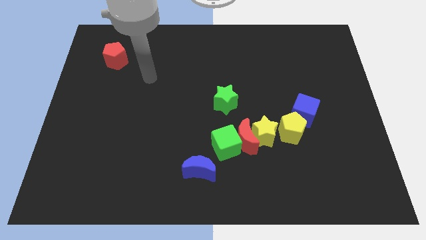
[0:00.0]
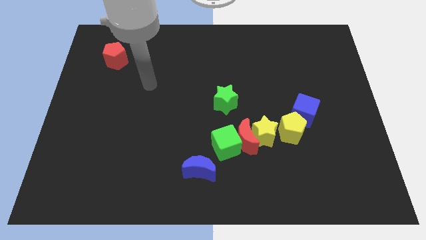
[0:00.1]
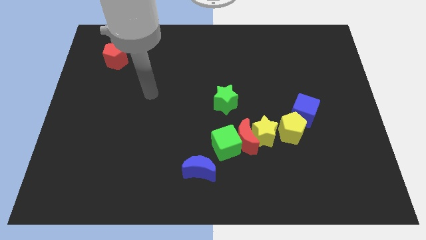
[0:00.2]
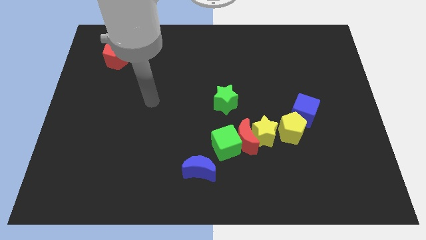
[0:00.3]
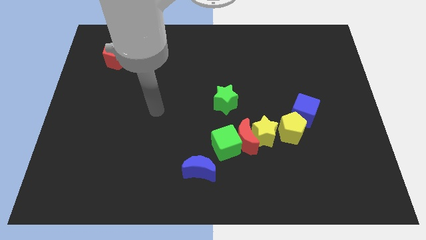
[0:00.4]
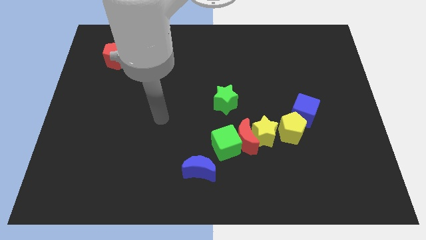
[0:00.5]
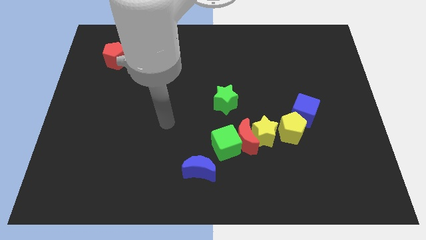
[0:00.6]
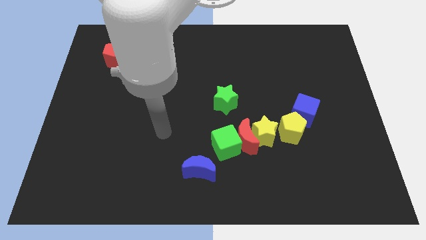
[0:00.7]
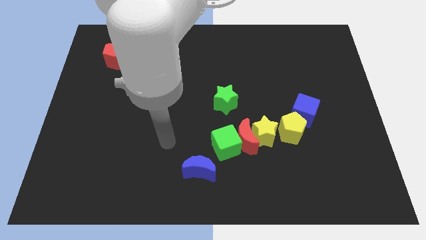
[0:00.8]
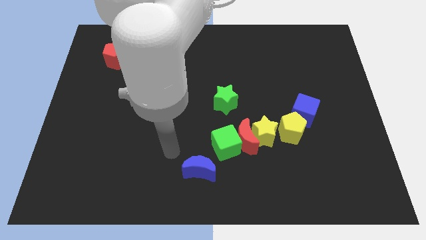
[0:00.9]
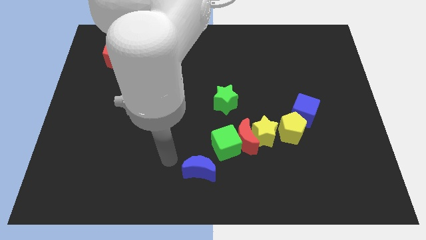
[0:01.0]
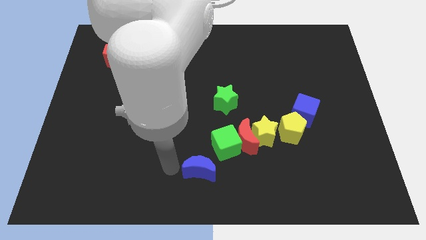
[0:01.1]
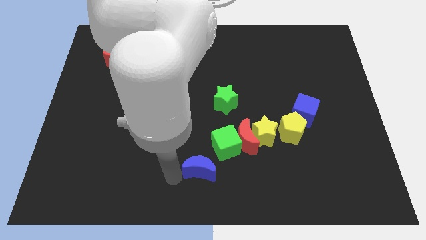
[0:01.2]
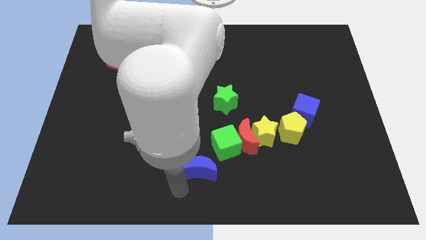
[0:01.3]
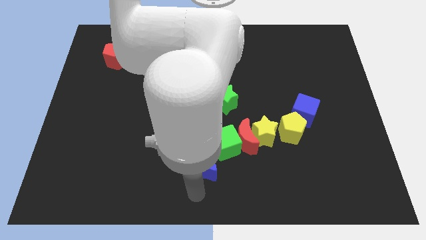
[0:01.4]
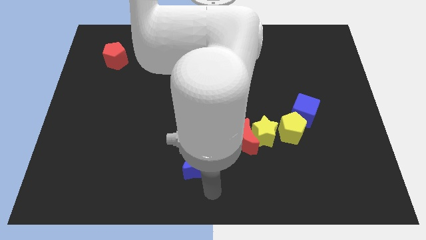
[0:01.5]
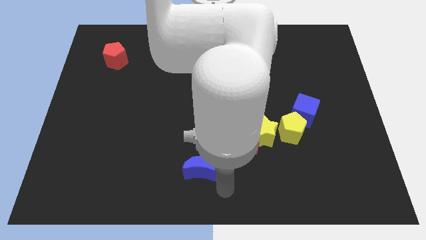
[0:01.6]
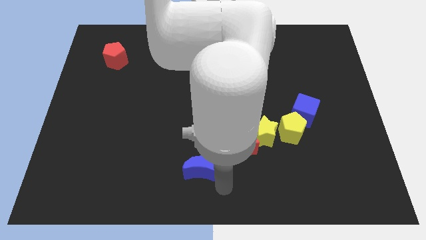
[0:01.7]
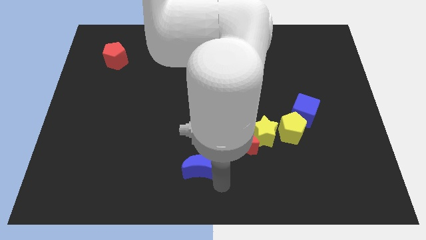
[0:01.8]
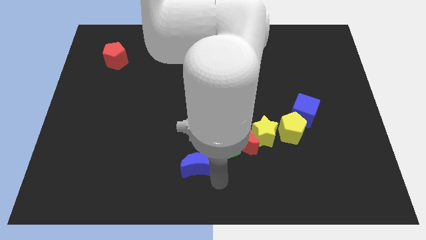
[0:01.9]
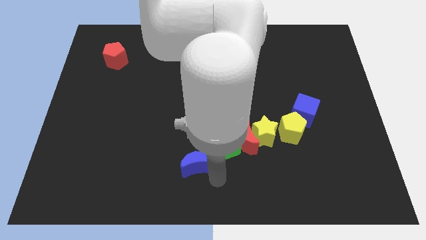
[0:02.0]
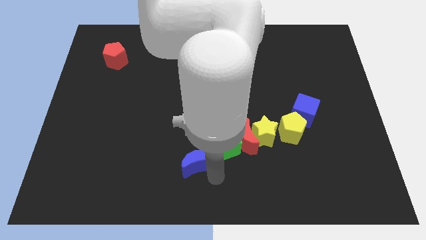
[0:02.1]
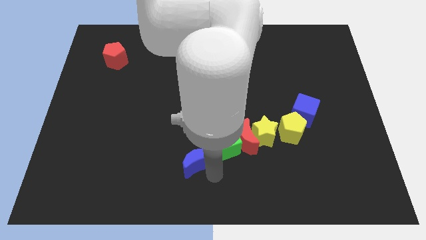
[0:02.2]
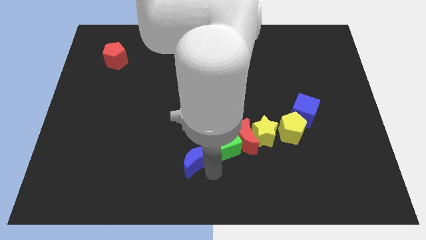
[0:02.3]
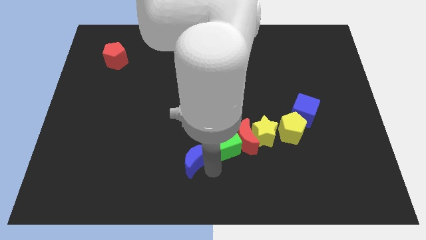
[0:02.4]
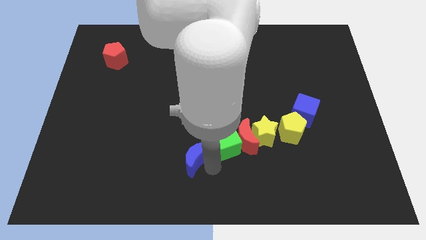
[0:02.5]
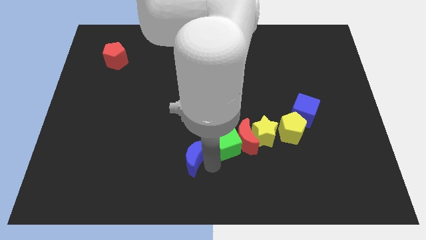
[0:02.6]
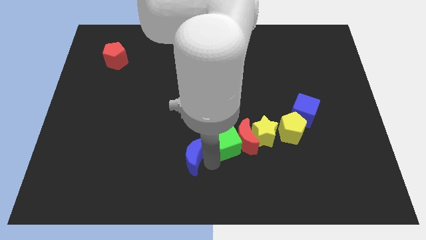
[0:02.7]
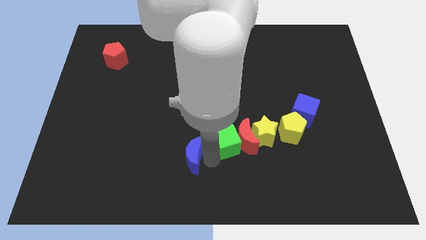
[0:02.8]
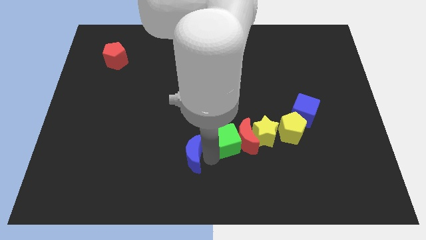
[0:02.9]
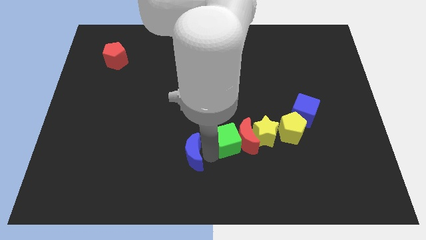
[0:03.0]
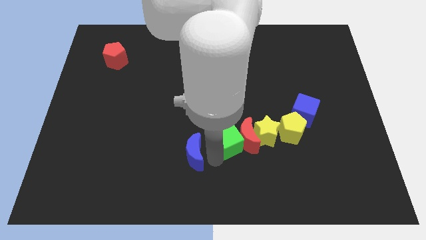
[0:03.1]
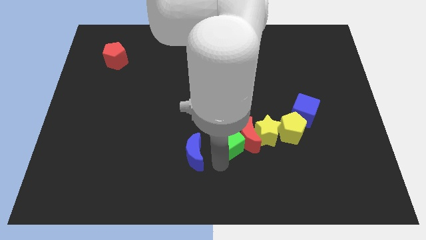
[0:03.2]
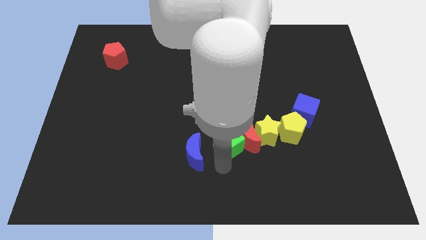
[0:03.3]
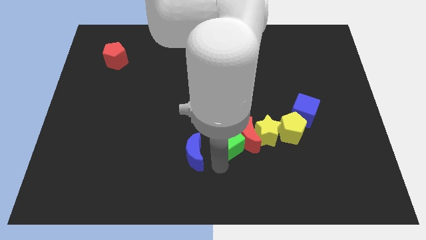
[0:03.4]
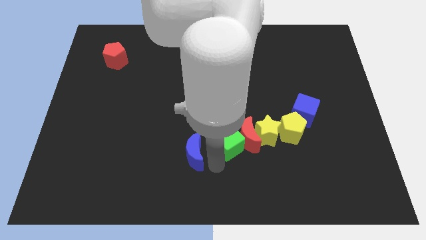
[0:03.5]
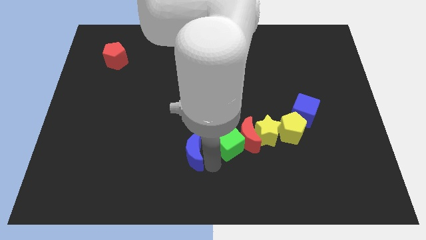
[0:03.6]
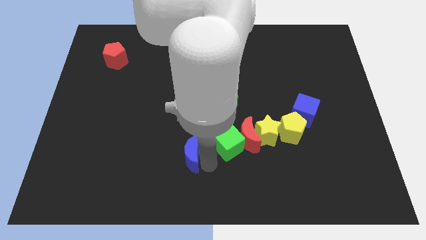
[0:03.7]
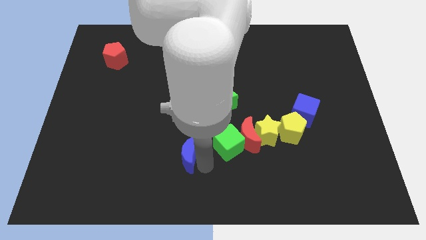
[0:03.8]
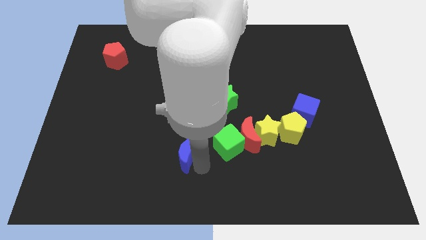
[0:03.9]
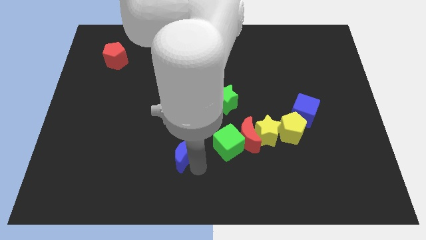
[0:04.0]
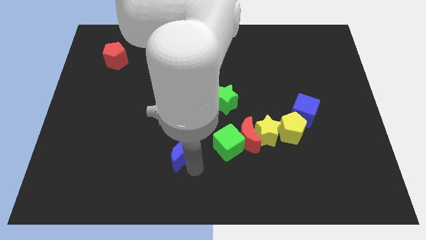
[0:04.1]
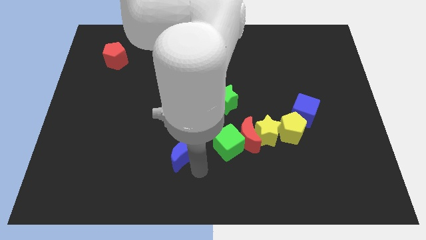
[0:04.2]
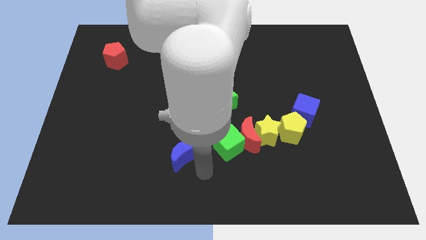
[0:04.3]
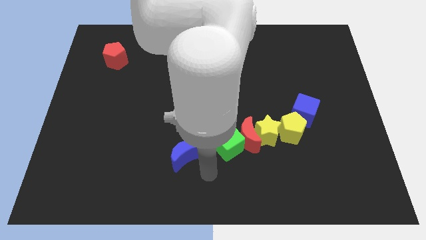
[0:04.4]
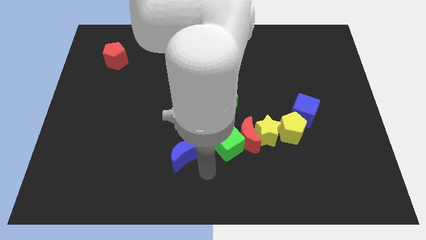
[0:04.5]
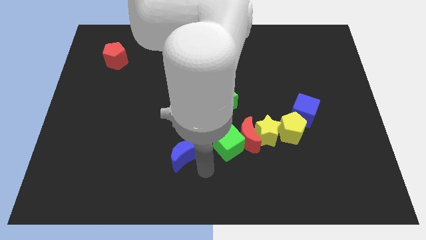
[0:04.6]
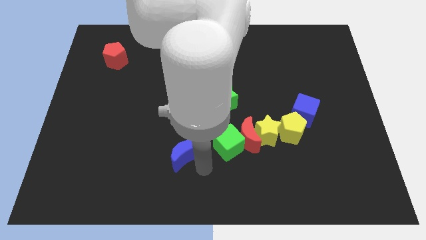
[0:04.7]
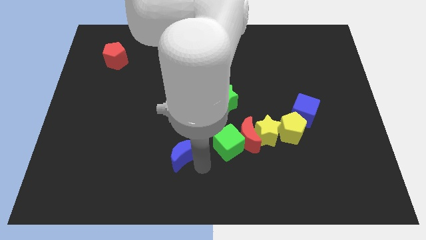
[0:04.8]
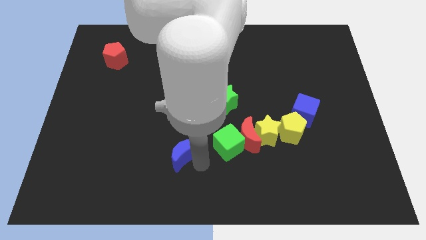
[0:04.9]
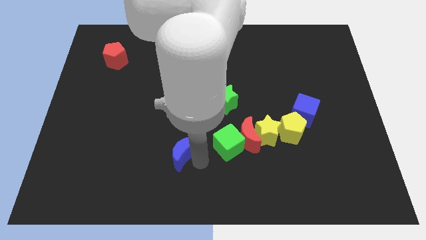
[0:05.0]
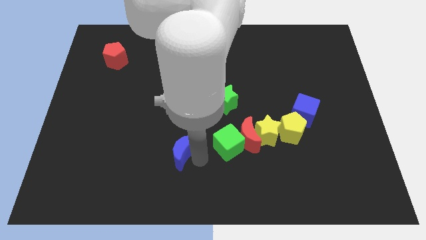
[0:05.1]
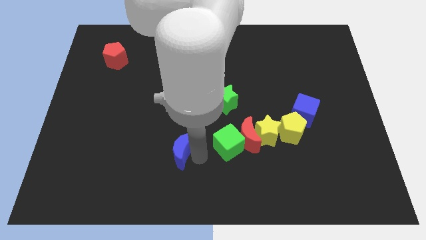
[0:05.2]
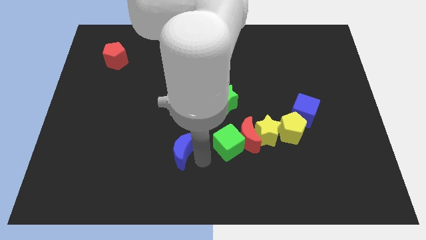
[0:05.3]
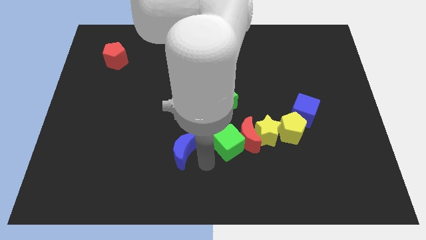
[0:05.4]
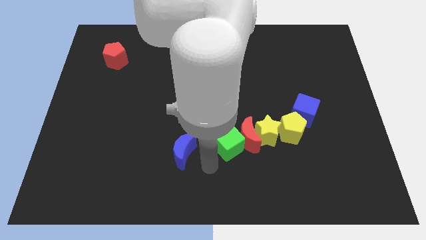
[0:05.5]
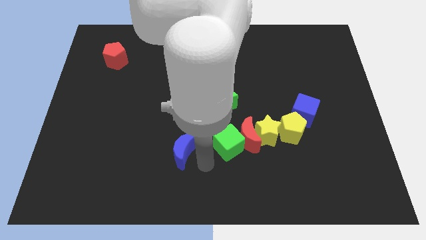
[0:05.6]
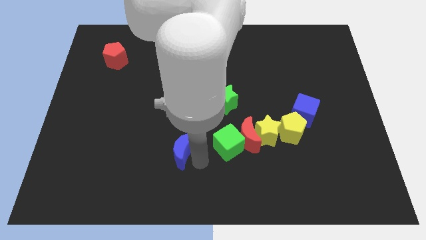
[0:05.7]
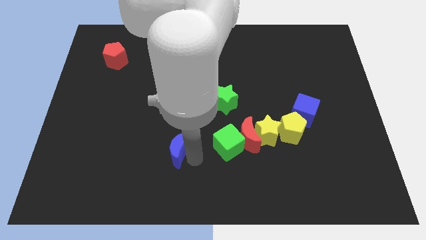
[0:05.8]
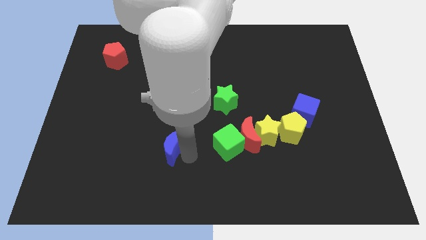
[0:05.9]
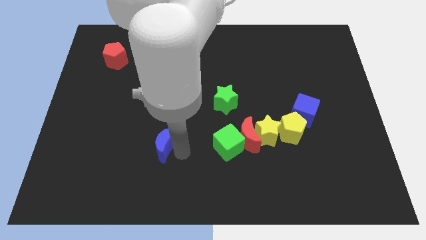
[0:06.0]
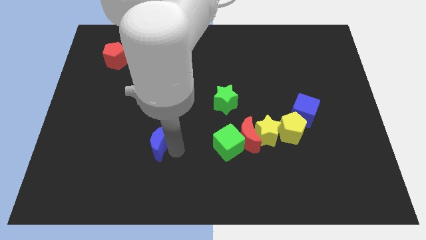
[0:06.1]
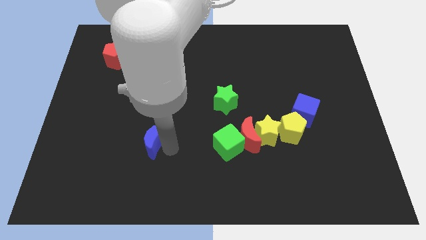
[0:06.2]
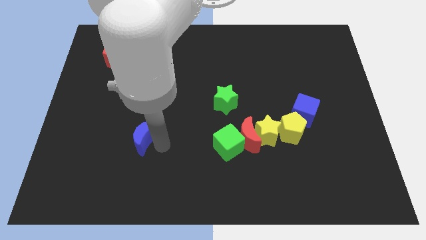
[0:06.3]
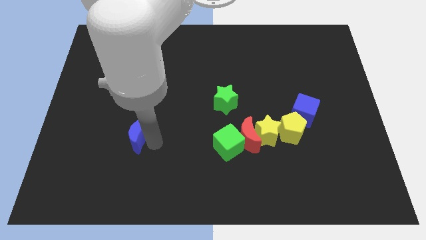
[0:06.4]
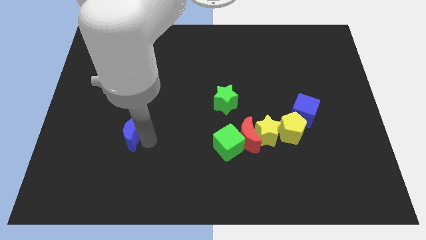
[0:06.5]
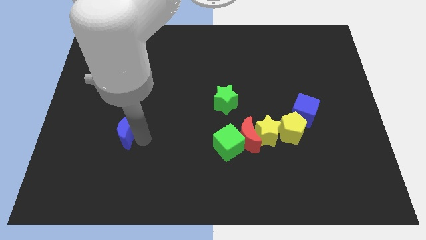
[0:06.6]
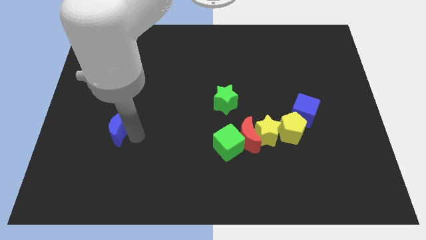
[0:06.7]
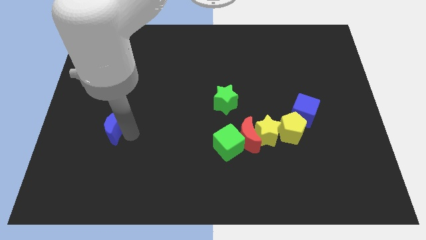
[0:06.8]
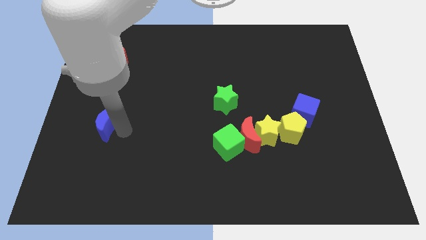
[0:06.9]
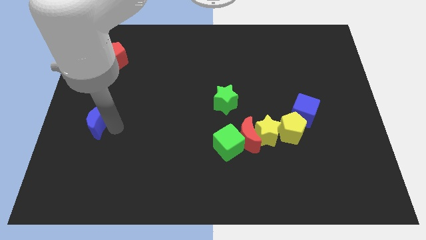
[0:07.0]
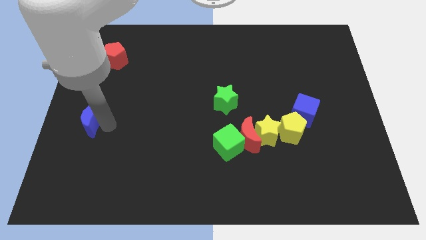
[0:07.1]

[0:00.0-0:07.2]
move the blue moon to the left side of the board
